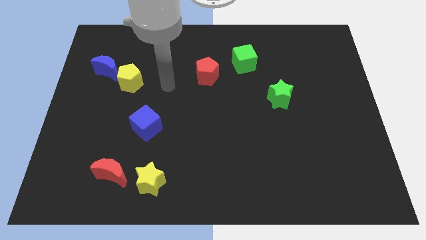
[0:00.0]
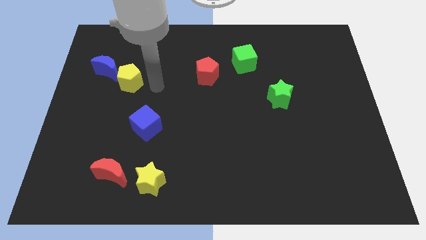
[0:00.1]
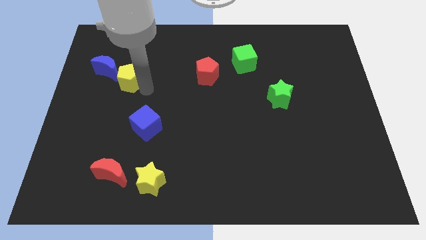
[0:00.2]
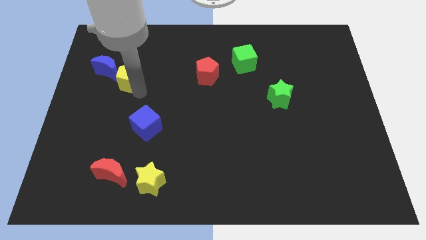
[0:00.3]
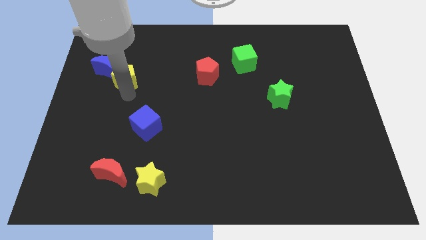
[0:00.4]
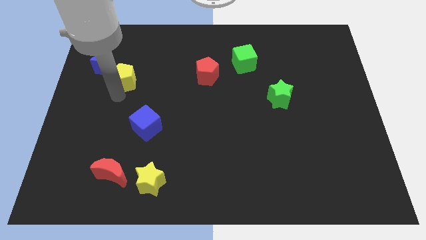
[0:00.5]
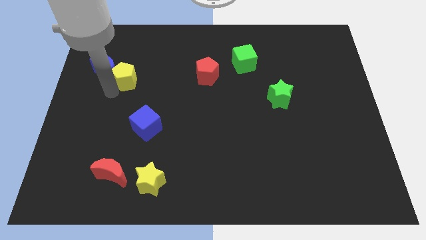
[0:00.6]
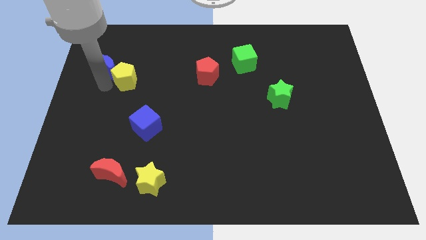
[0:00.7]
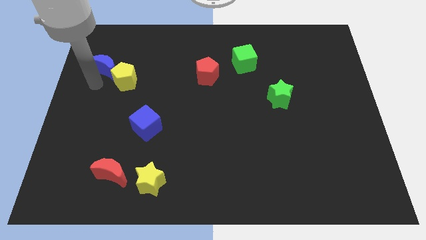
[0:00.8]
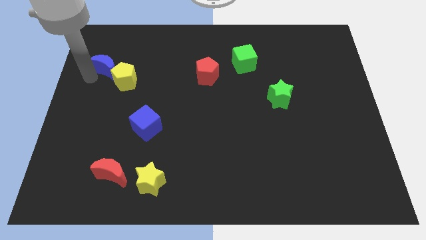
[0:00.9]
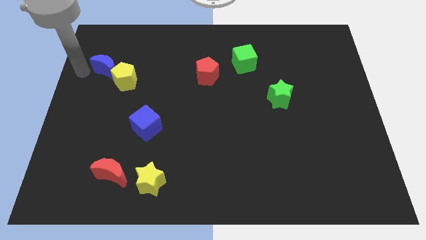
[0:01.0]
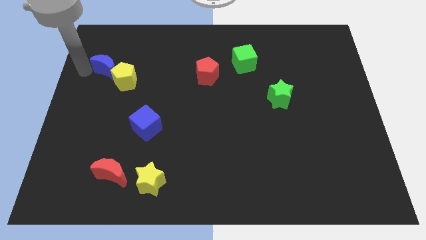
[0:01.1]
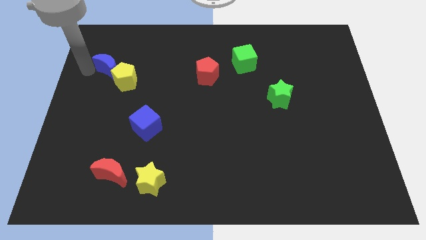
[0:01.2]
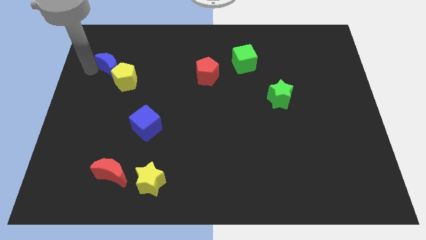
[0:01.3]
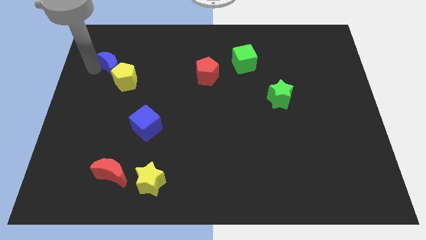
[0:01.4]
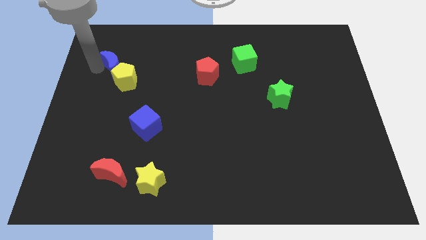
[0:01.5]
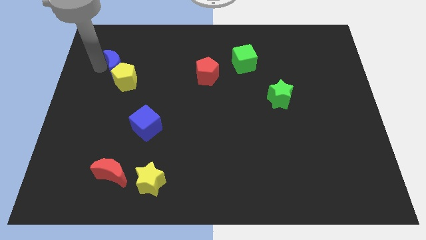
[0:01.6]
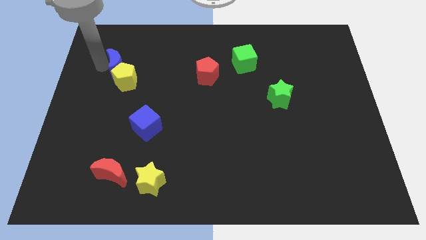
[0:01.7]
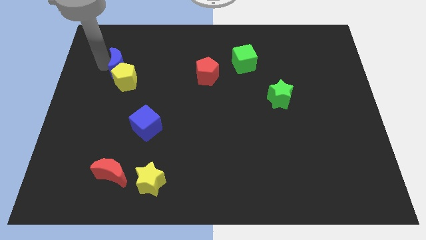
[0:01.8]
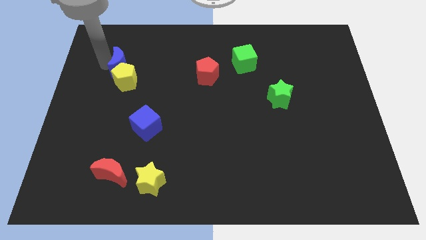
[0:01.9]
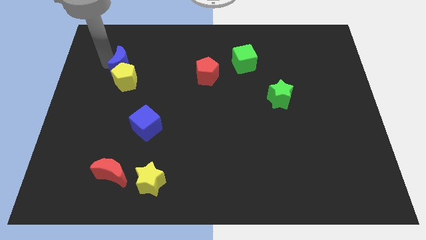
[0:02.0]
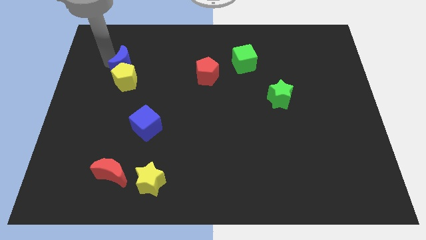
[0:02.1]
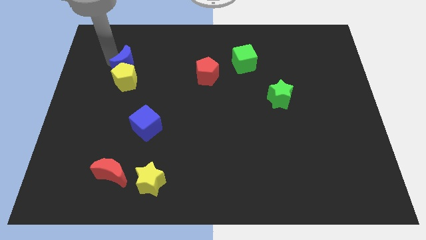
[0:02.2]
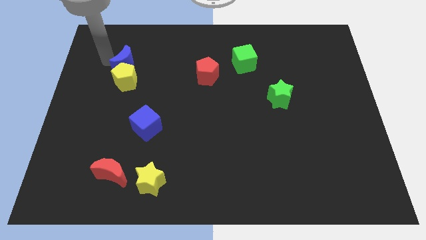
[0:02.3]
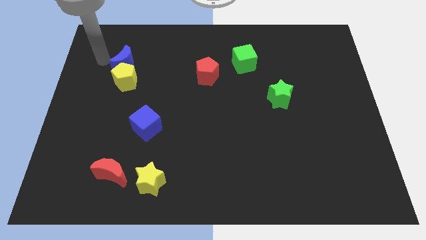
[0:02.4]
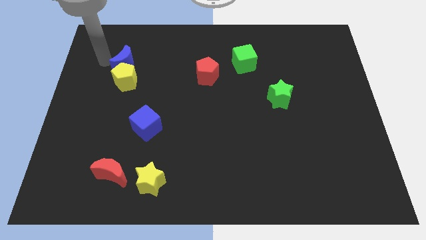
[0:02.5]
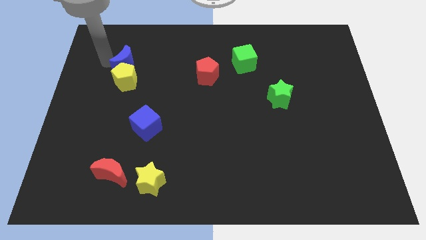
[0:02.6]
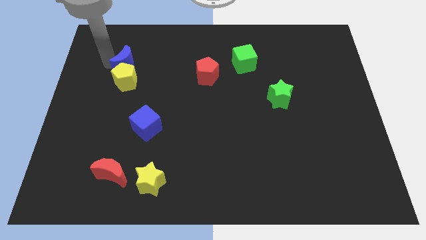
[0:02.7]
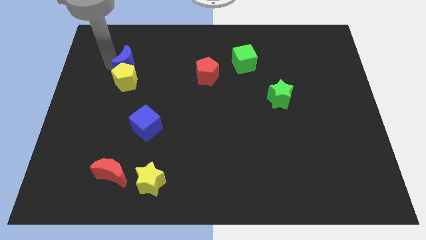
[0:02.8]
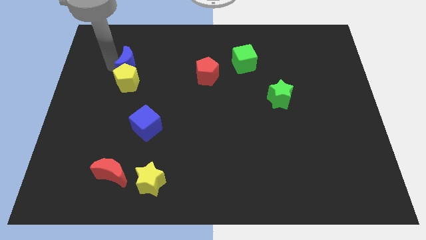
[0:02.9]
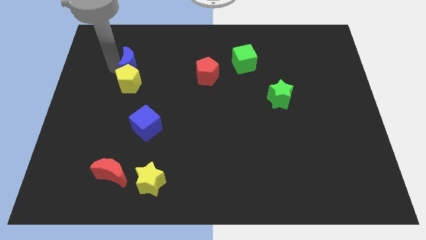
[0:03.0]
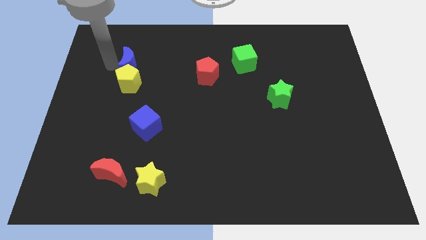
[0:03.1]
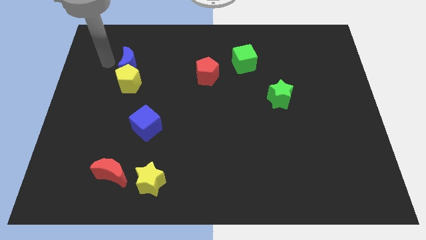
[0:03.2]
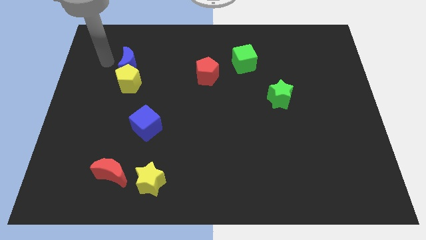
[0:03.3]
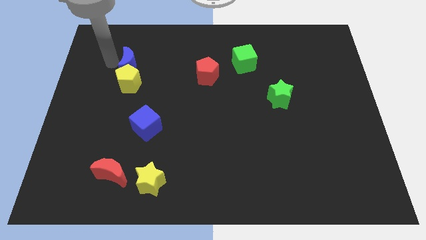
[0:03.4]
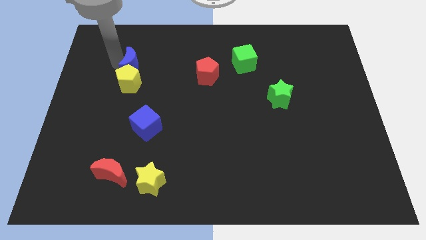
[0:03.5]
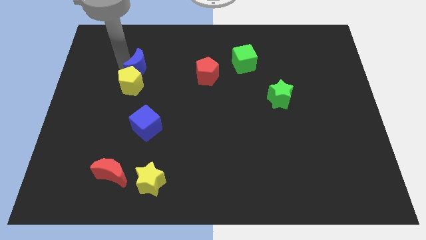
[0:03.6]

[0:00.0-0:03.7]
move the blue moon right a little bit

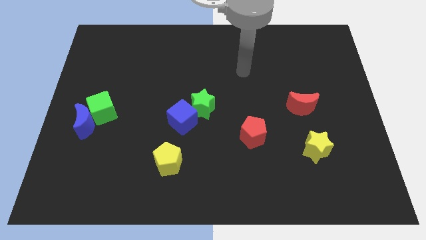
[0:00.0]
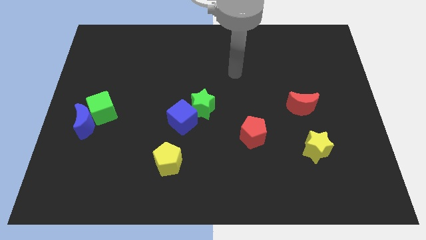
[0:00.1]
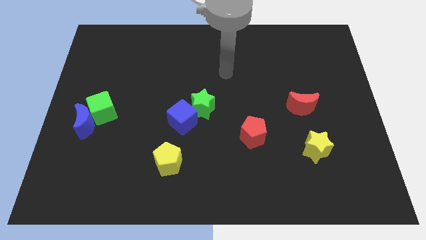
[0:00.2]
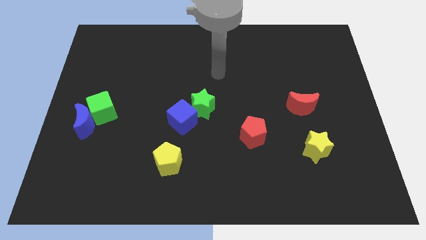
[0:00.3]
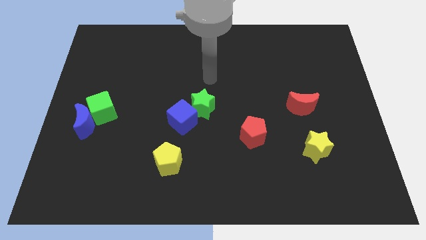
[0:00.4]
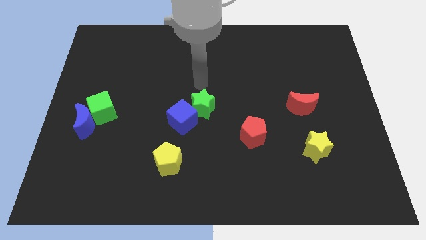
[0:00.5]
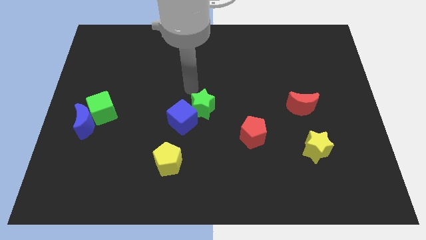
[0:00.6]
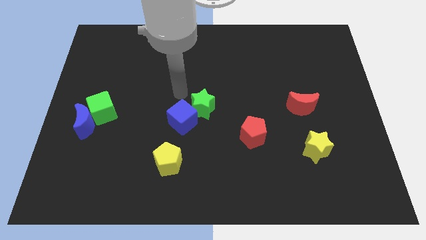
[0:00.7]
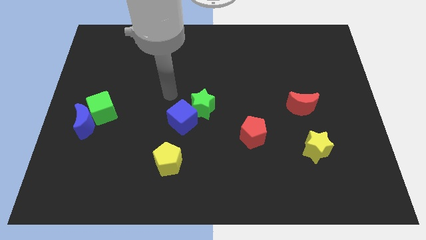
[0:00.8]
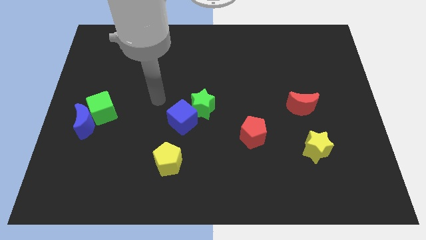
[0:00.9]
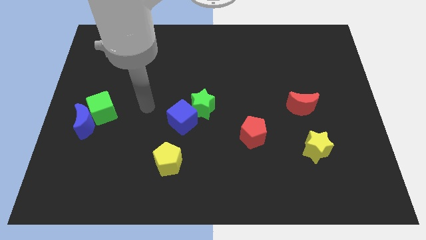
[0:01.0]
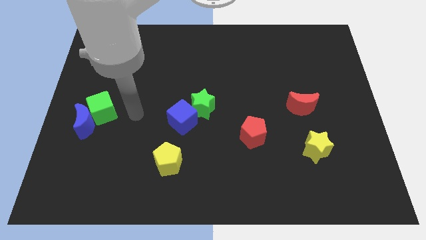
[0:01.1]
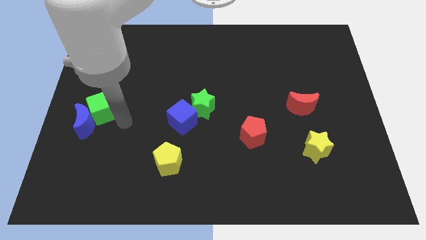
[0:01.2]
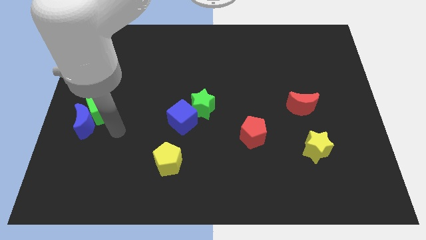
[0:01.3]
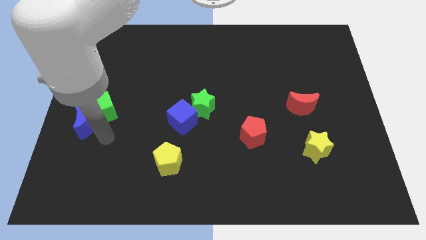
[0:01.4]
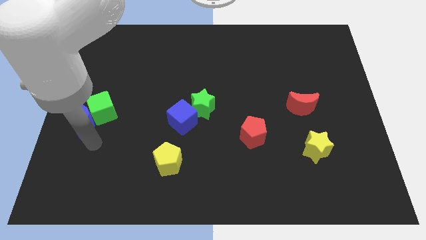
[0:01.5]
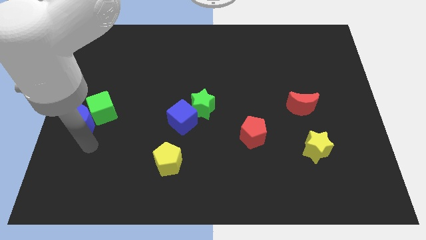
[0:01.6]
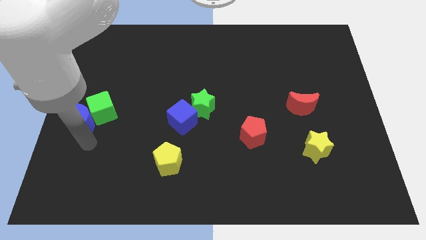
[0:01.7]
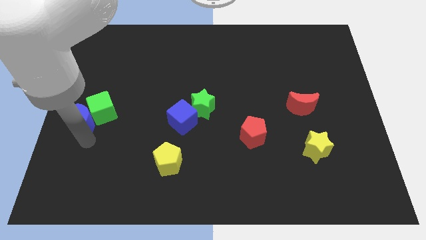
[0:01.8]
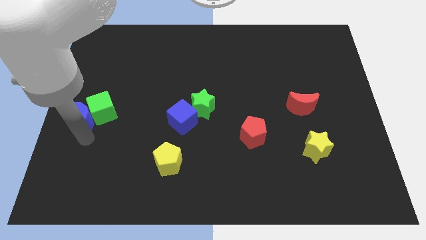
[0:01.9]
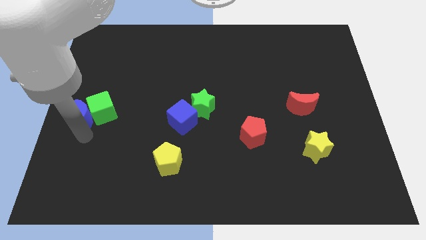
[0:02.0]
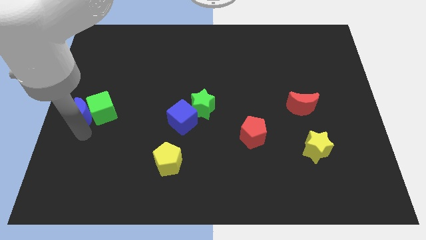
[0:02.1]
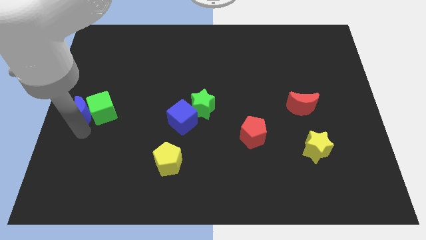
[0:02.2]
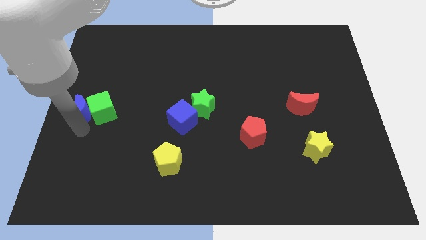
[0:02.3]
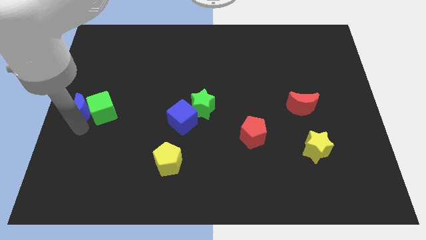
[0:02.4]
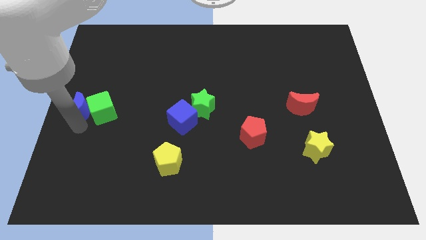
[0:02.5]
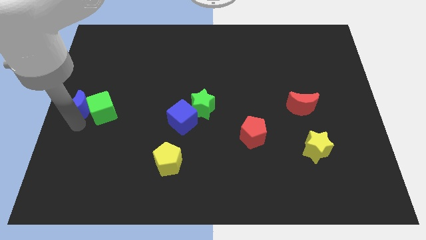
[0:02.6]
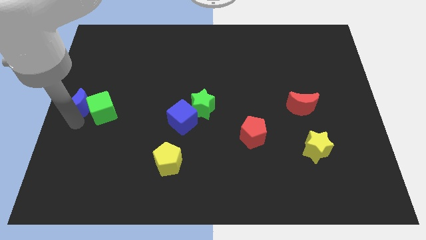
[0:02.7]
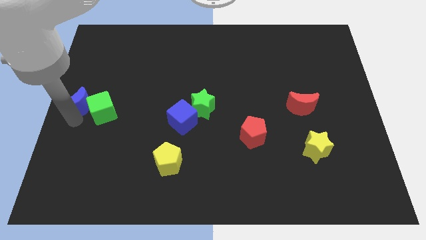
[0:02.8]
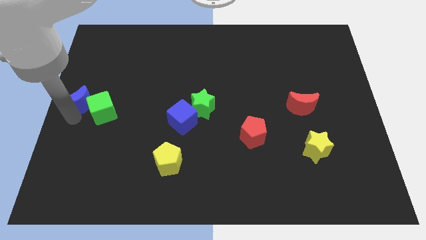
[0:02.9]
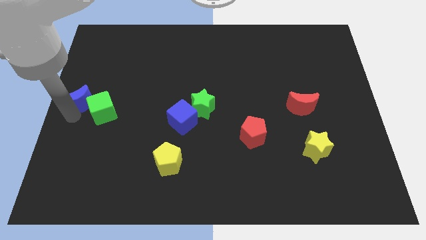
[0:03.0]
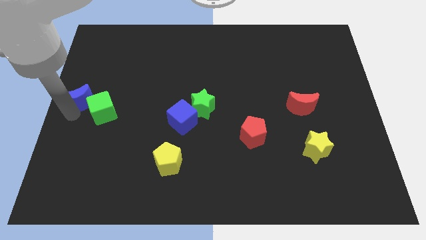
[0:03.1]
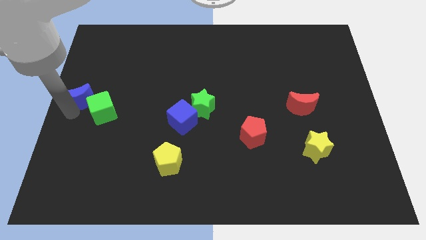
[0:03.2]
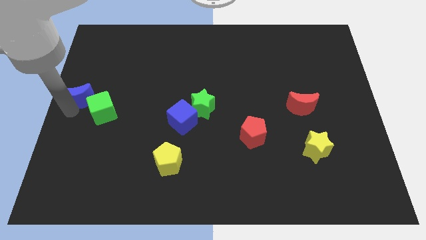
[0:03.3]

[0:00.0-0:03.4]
slightly slide the blue moon up

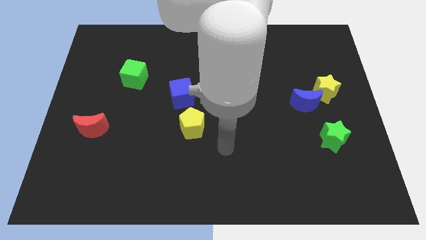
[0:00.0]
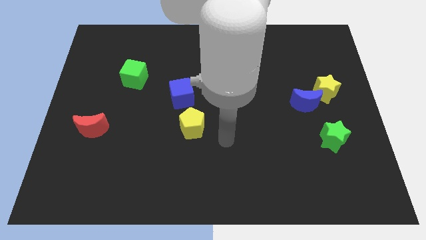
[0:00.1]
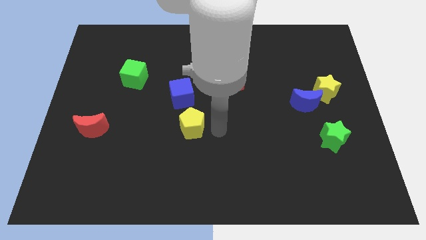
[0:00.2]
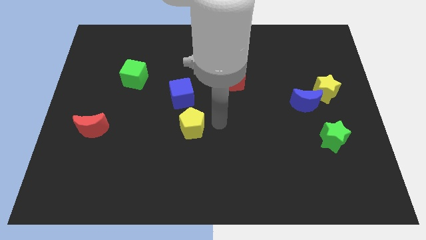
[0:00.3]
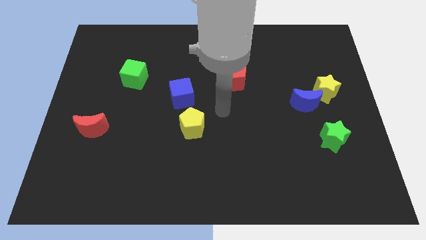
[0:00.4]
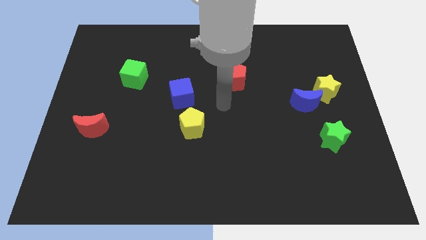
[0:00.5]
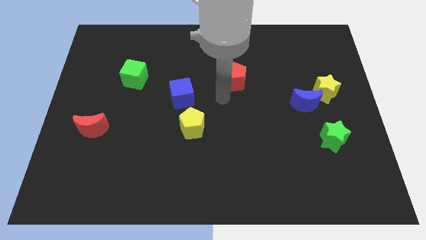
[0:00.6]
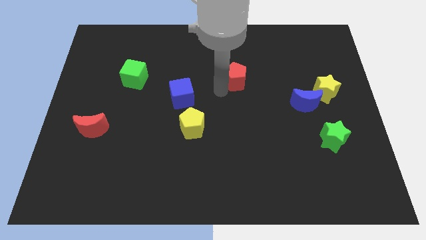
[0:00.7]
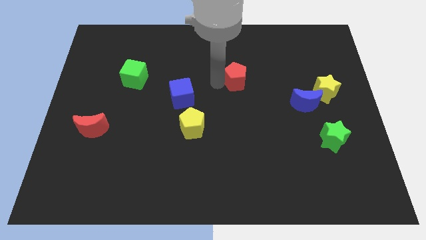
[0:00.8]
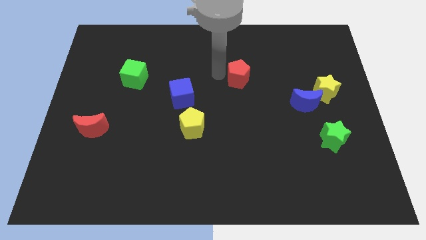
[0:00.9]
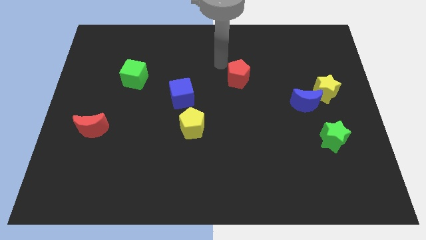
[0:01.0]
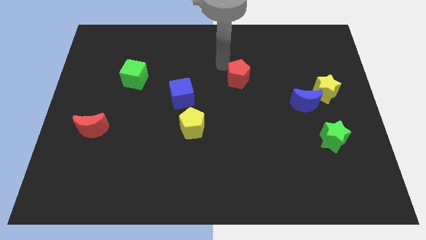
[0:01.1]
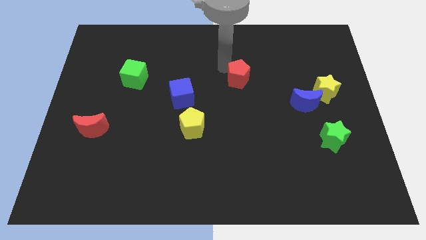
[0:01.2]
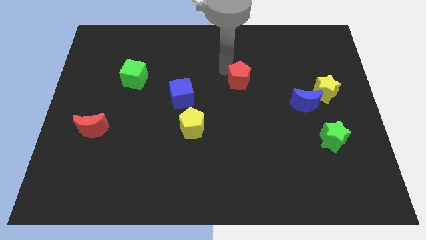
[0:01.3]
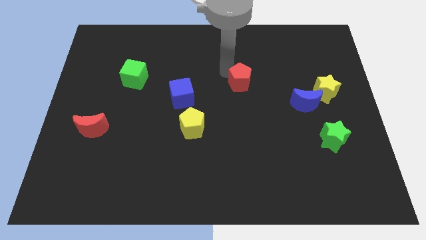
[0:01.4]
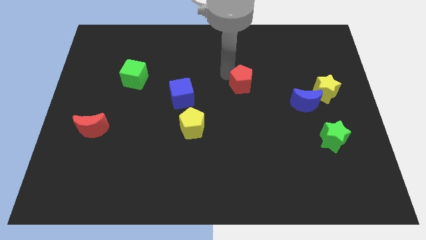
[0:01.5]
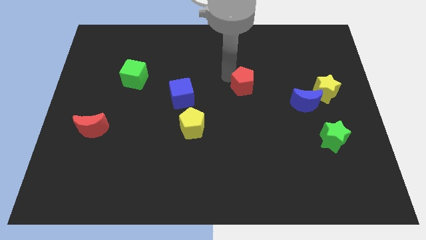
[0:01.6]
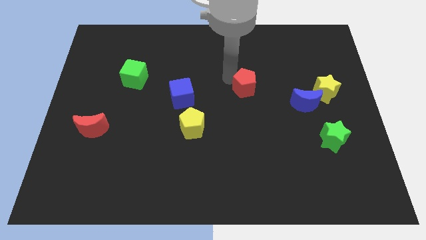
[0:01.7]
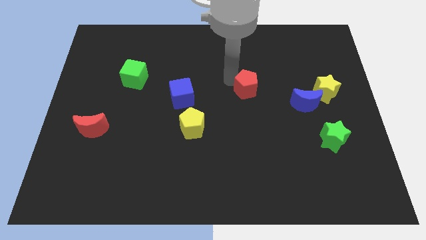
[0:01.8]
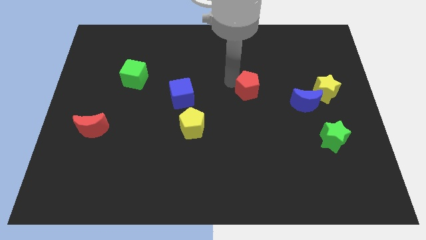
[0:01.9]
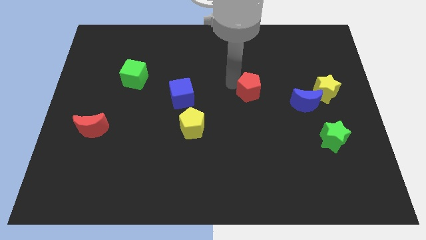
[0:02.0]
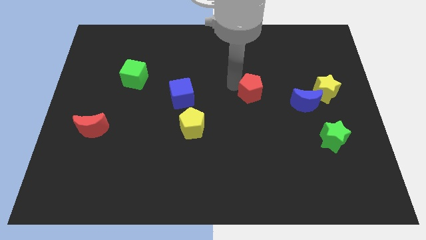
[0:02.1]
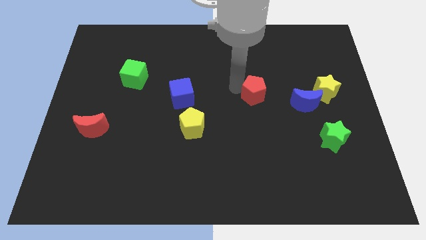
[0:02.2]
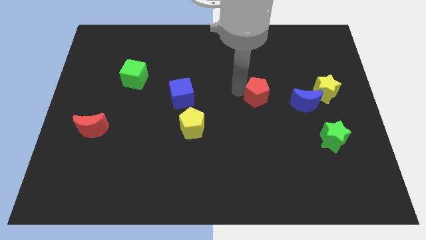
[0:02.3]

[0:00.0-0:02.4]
push the red pentagon a bit downwards and then right
